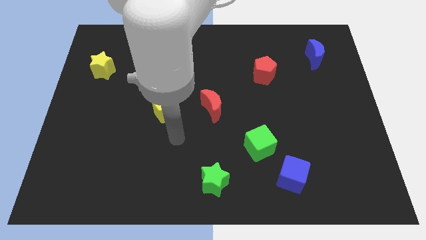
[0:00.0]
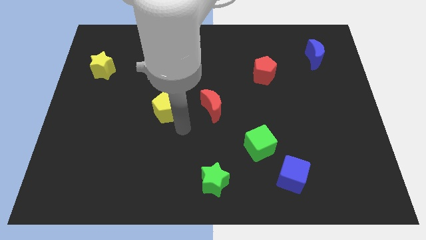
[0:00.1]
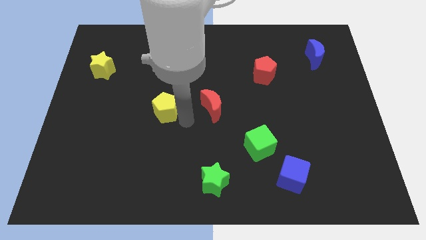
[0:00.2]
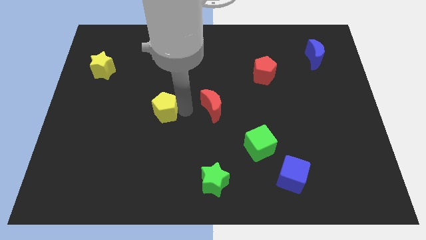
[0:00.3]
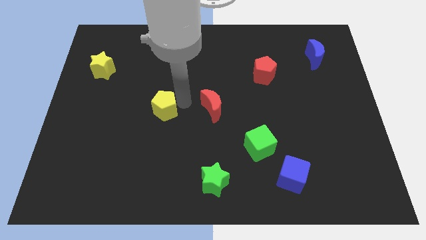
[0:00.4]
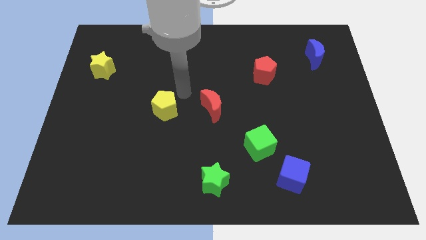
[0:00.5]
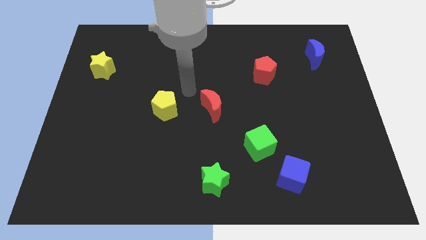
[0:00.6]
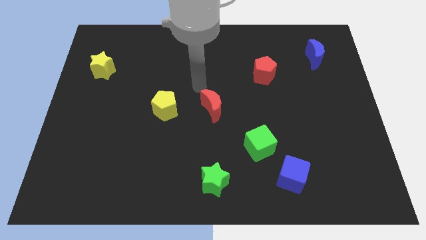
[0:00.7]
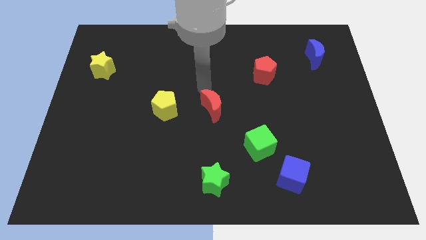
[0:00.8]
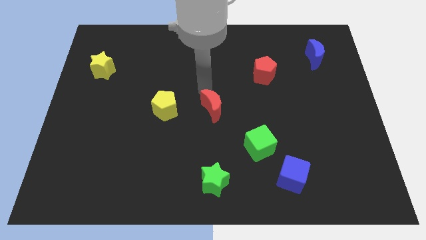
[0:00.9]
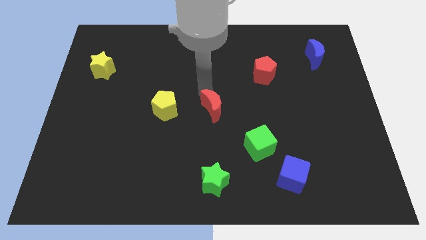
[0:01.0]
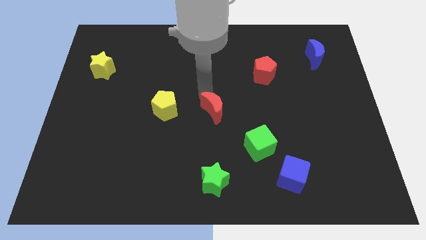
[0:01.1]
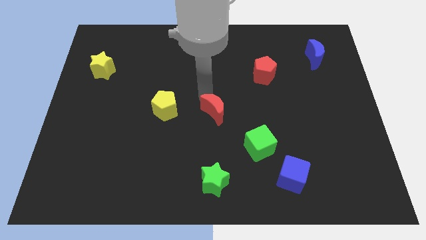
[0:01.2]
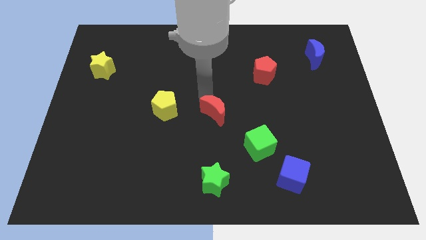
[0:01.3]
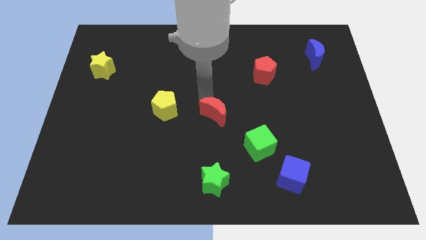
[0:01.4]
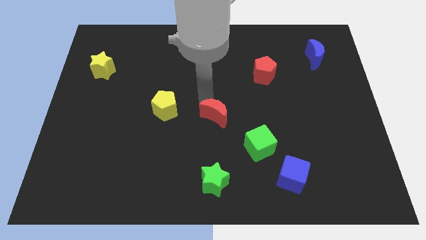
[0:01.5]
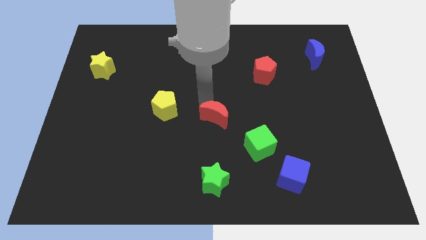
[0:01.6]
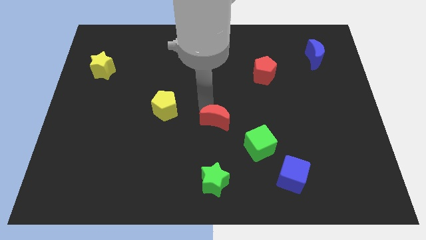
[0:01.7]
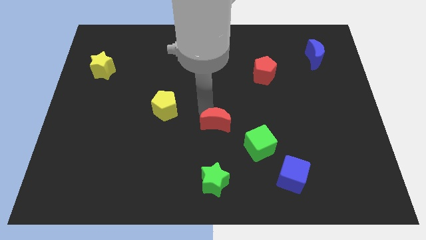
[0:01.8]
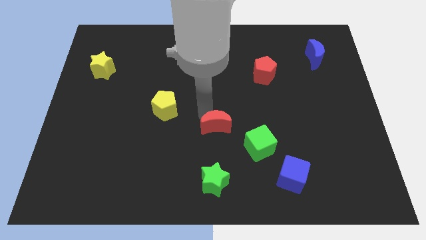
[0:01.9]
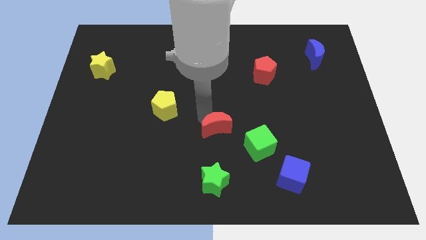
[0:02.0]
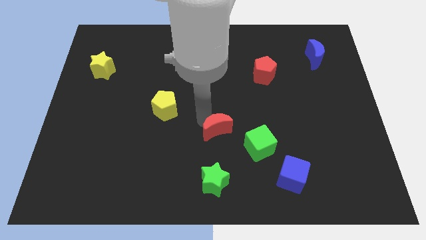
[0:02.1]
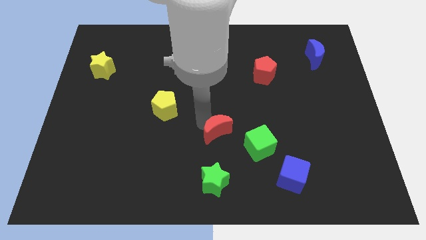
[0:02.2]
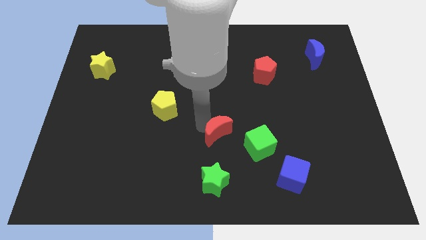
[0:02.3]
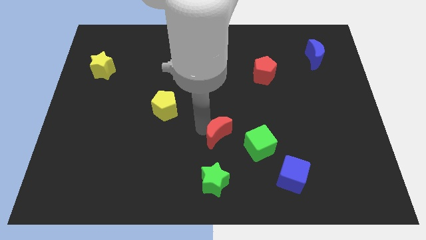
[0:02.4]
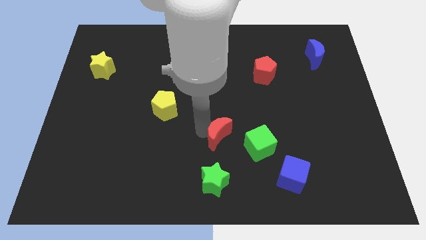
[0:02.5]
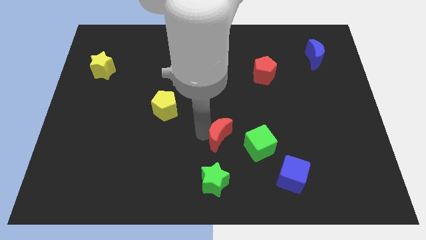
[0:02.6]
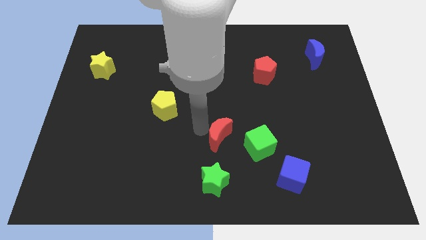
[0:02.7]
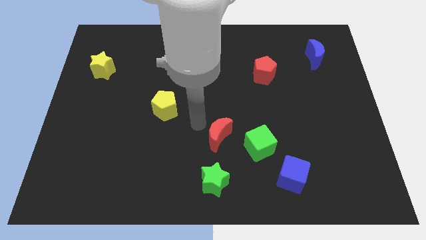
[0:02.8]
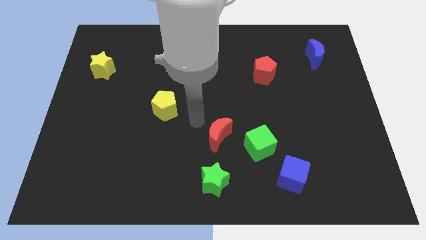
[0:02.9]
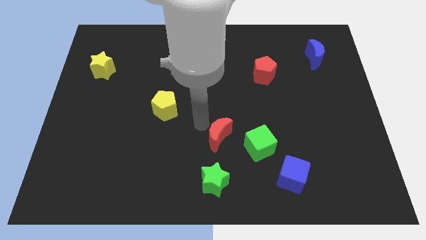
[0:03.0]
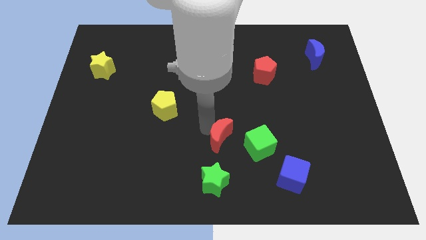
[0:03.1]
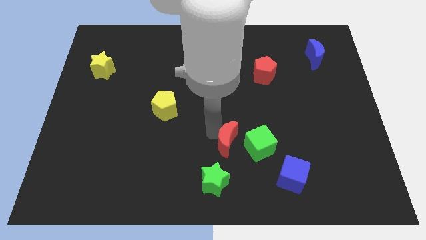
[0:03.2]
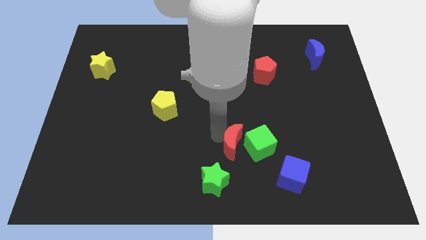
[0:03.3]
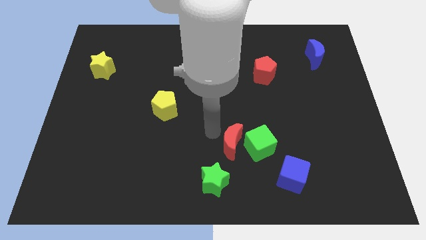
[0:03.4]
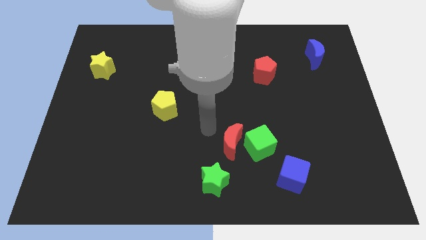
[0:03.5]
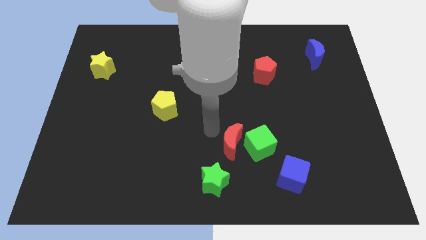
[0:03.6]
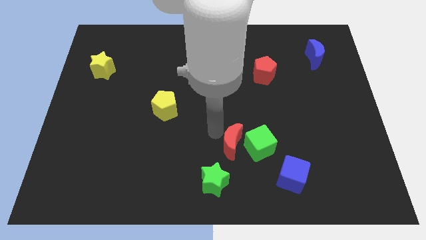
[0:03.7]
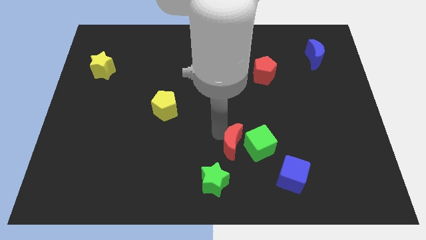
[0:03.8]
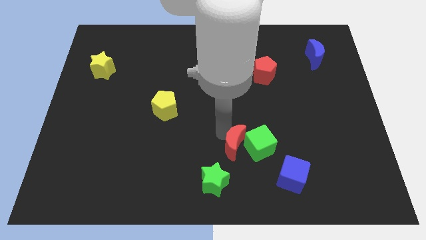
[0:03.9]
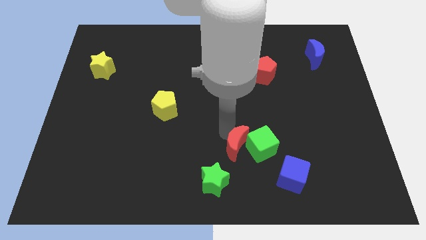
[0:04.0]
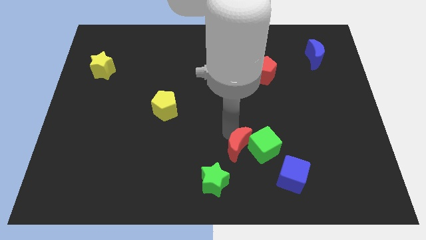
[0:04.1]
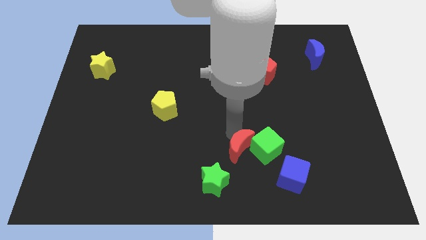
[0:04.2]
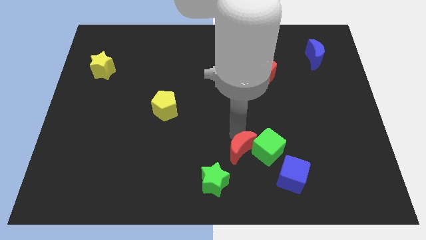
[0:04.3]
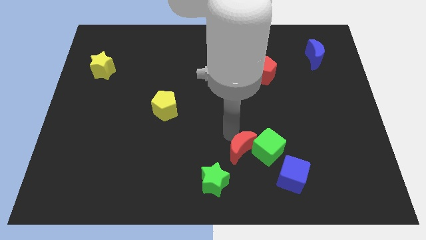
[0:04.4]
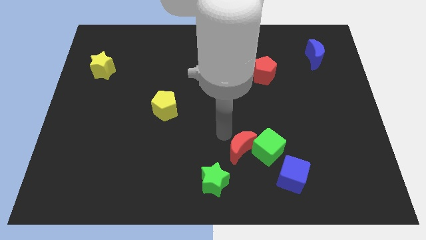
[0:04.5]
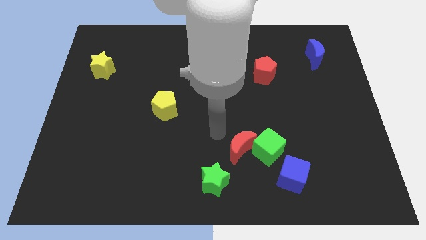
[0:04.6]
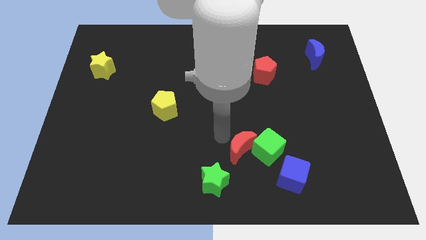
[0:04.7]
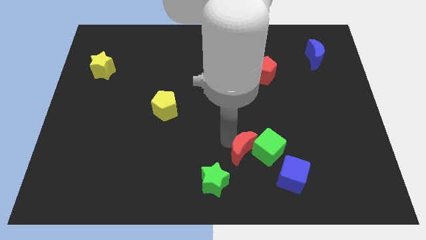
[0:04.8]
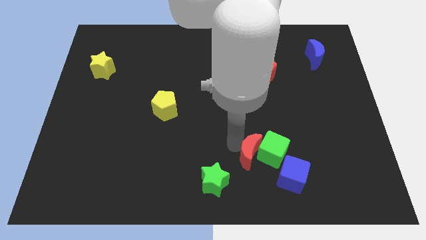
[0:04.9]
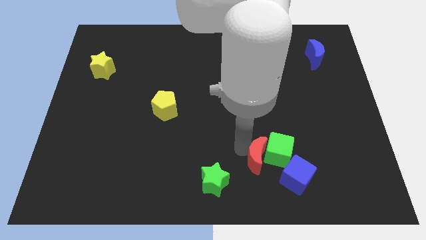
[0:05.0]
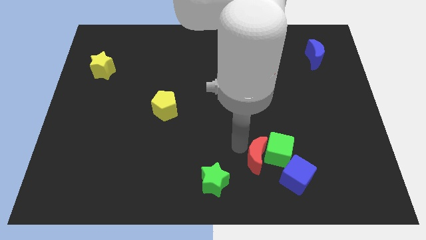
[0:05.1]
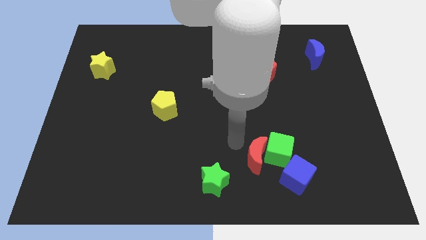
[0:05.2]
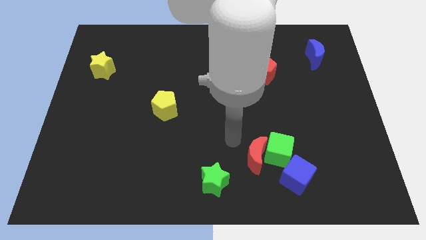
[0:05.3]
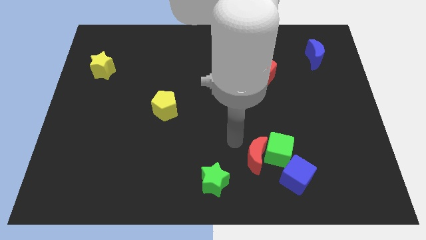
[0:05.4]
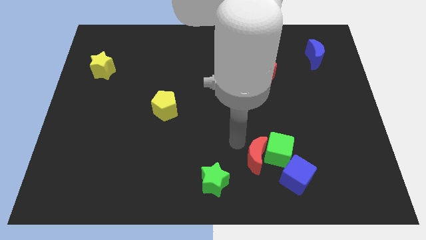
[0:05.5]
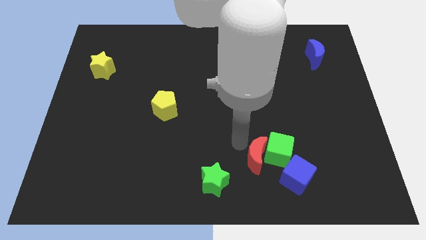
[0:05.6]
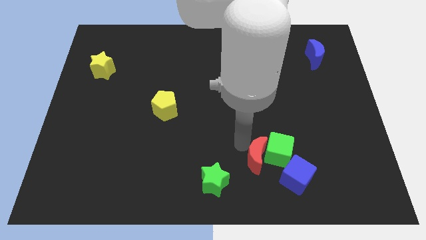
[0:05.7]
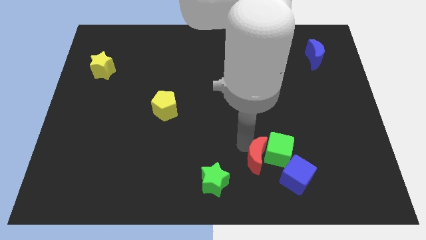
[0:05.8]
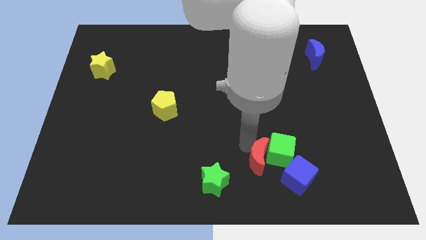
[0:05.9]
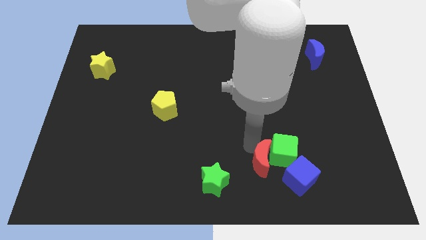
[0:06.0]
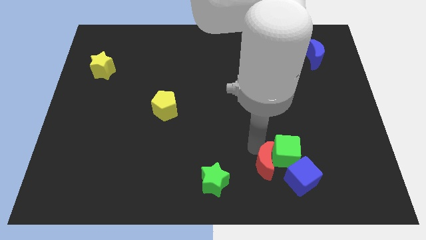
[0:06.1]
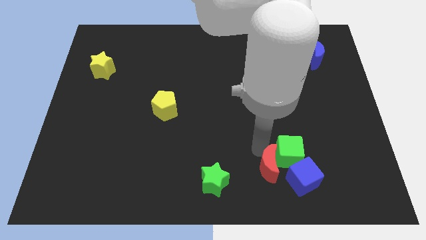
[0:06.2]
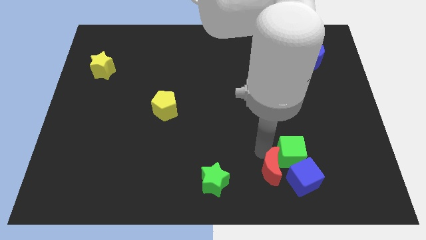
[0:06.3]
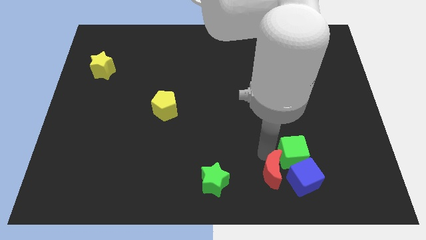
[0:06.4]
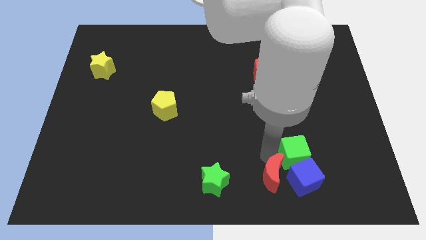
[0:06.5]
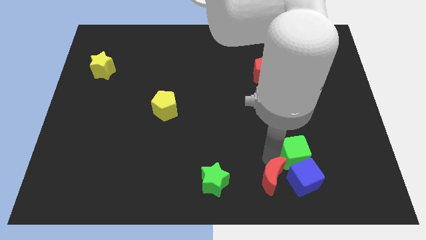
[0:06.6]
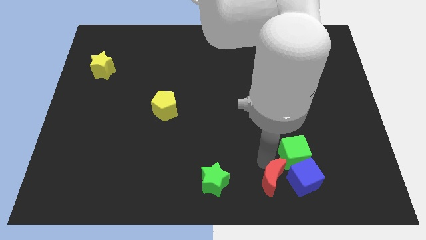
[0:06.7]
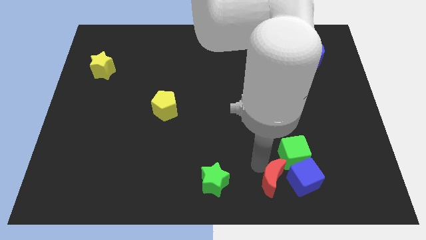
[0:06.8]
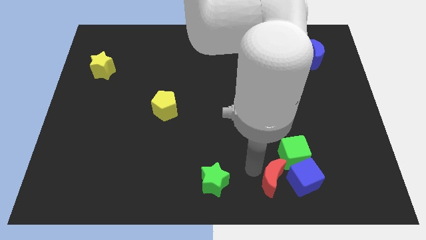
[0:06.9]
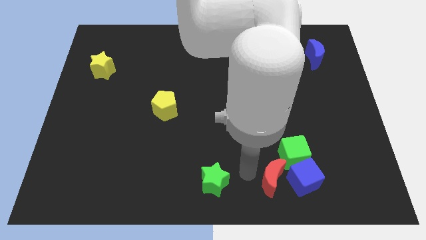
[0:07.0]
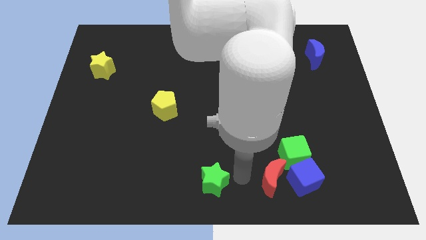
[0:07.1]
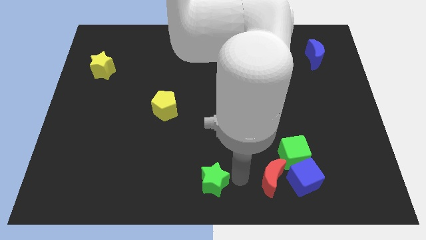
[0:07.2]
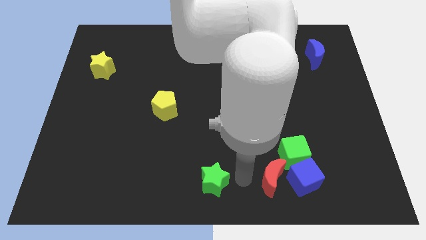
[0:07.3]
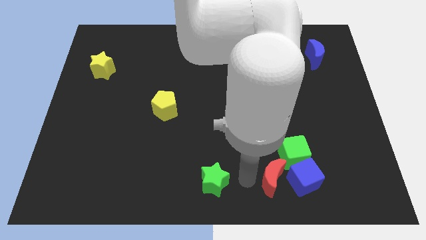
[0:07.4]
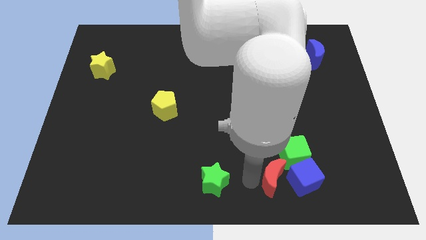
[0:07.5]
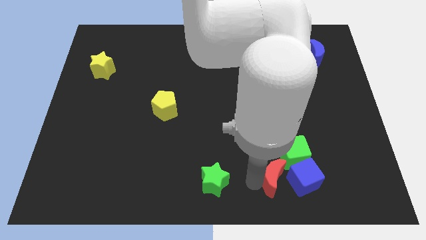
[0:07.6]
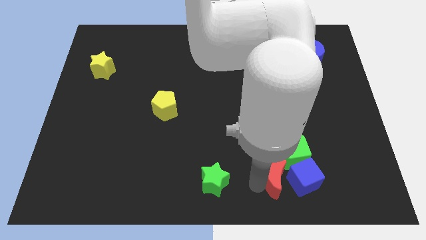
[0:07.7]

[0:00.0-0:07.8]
put the red moon towards the blue cube

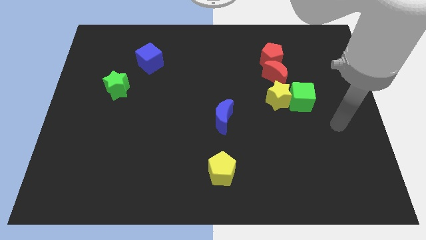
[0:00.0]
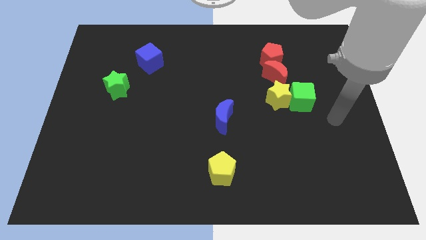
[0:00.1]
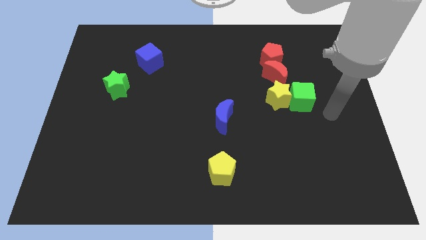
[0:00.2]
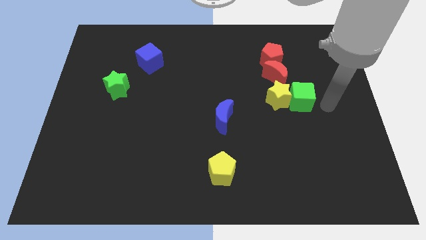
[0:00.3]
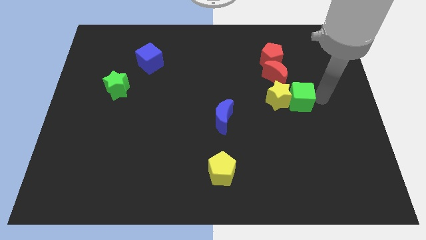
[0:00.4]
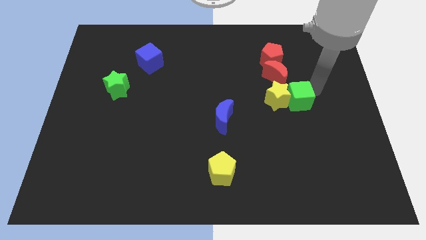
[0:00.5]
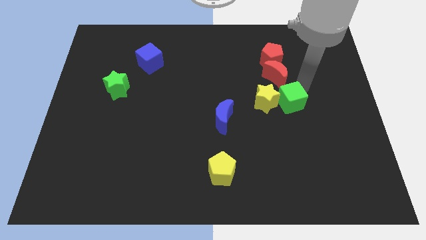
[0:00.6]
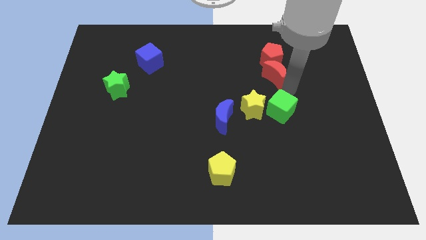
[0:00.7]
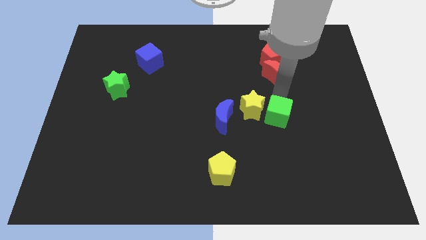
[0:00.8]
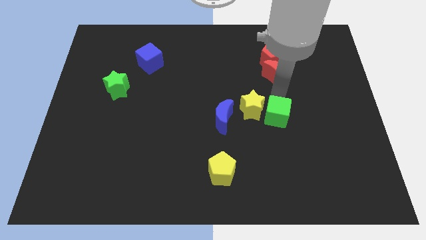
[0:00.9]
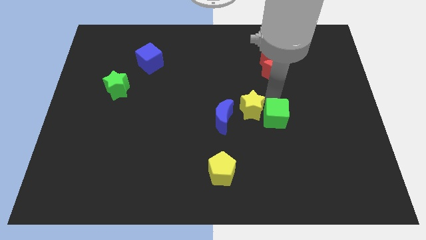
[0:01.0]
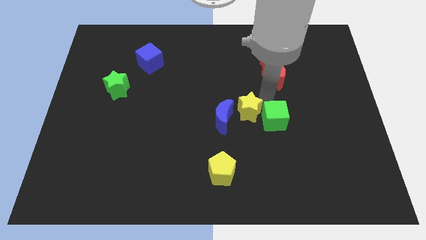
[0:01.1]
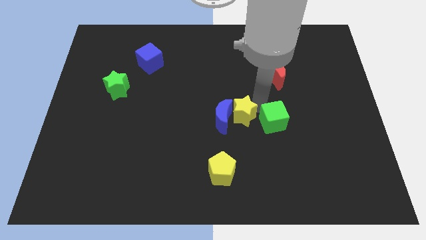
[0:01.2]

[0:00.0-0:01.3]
slide the yellow star to the blue moon
